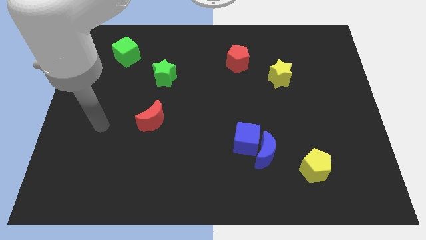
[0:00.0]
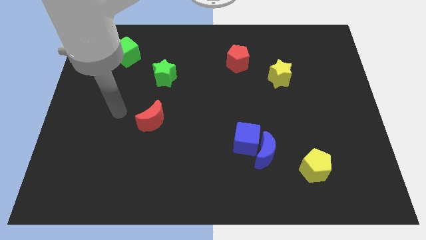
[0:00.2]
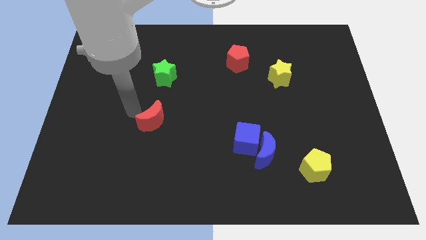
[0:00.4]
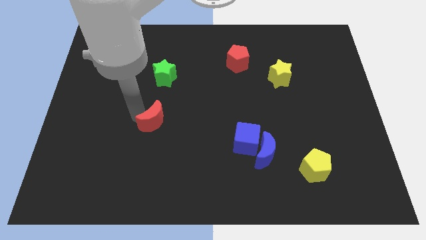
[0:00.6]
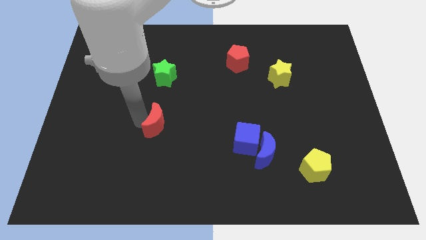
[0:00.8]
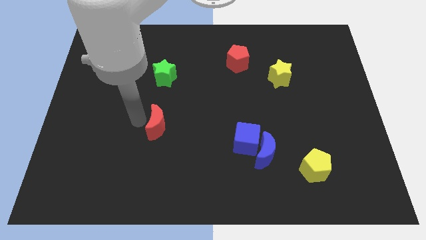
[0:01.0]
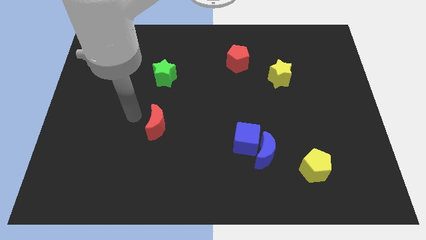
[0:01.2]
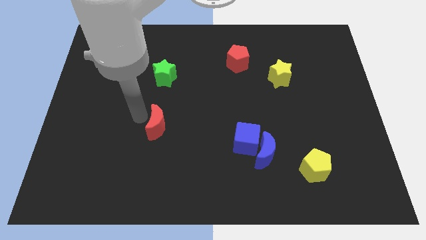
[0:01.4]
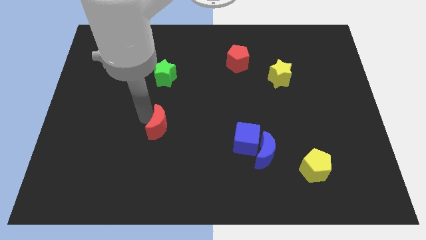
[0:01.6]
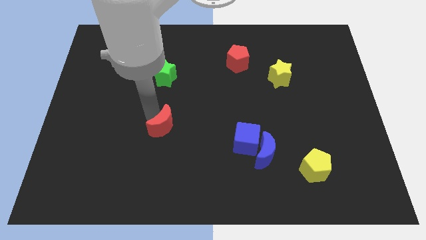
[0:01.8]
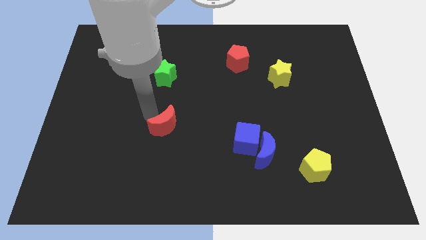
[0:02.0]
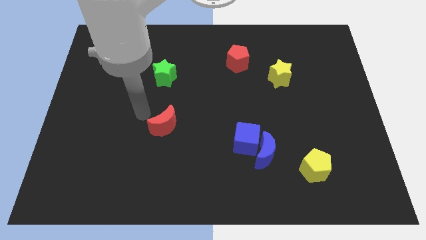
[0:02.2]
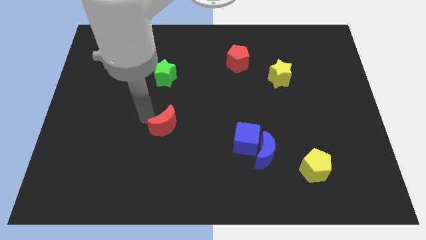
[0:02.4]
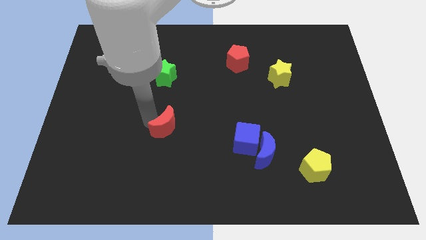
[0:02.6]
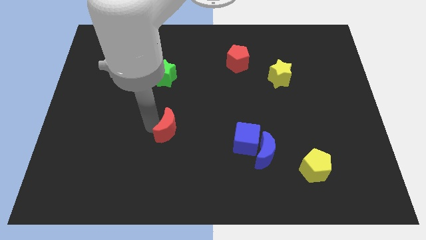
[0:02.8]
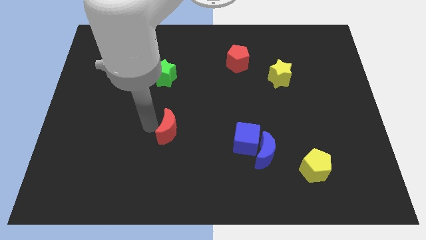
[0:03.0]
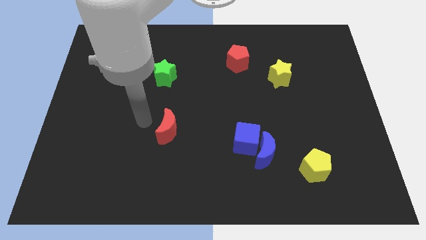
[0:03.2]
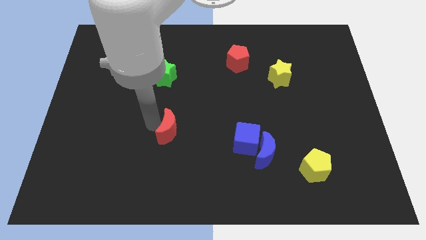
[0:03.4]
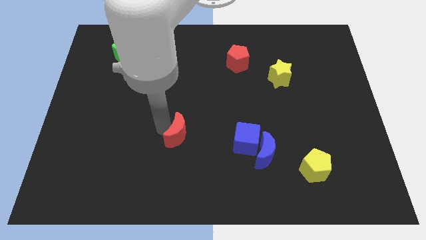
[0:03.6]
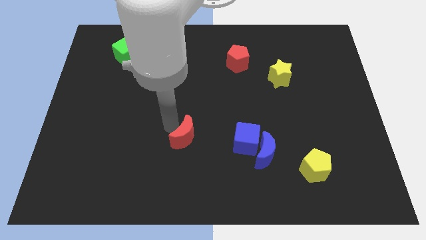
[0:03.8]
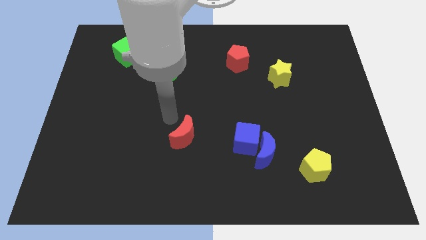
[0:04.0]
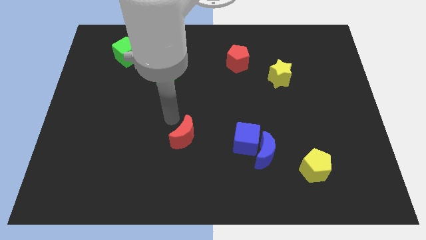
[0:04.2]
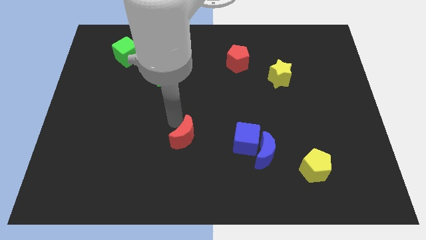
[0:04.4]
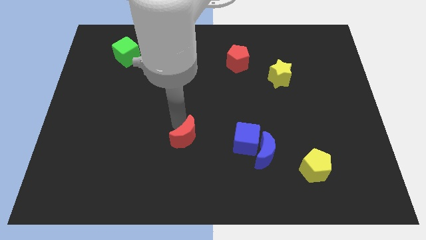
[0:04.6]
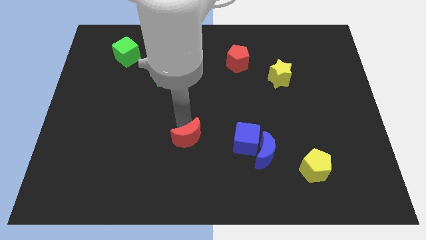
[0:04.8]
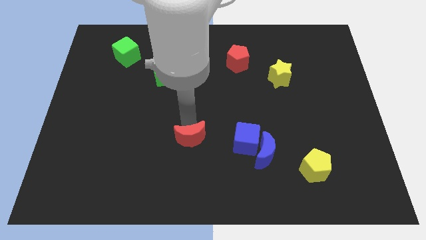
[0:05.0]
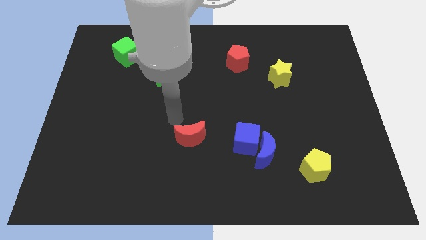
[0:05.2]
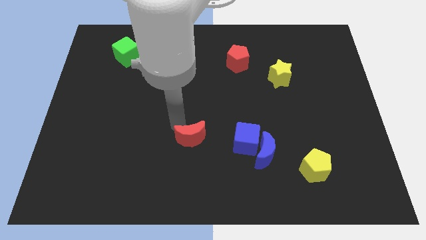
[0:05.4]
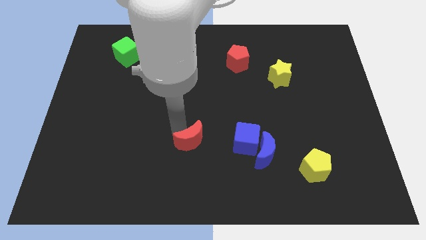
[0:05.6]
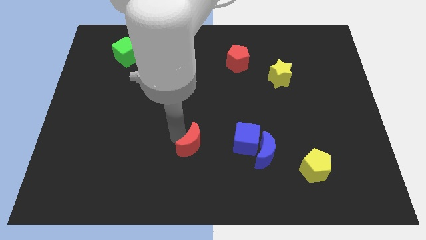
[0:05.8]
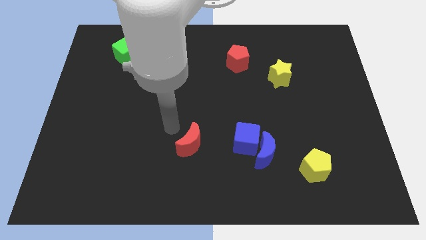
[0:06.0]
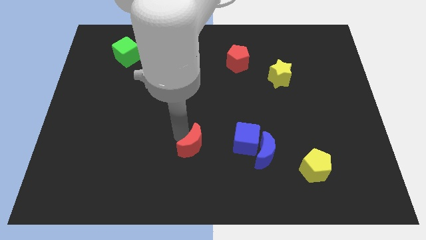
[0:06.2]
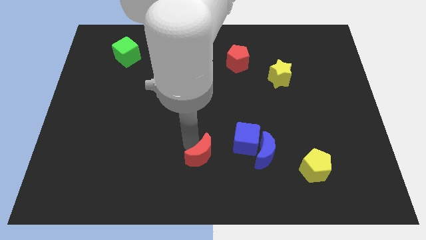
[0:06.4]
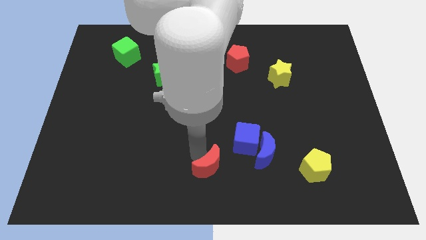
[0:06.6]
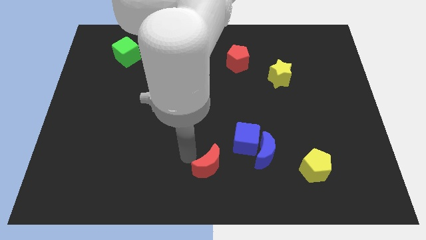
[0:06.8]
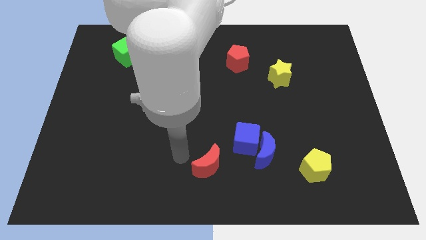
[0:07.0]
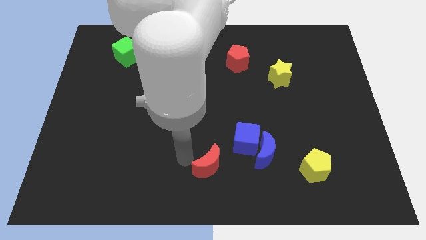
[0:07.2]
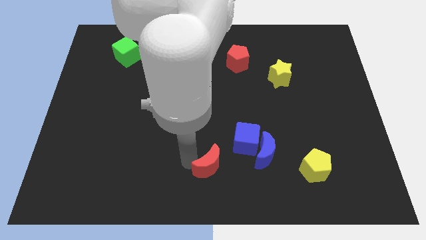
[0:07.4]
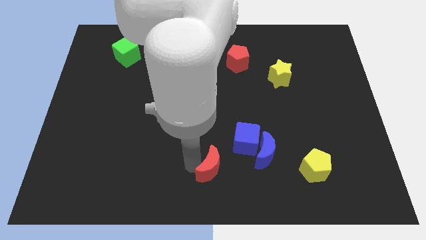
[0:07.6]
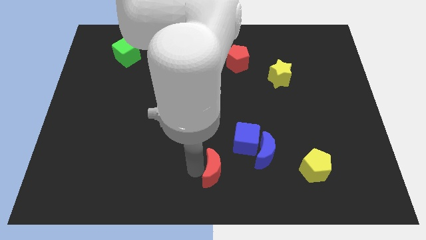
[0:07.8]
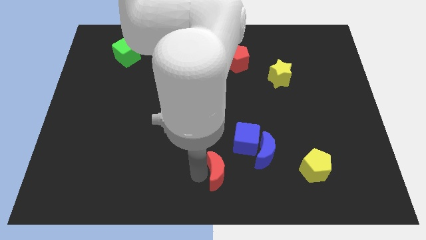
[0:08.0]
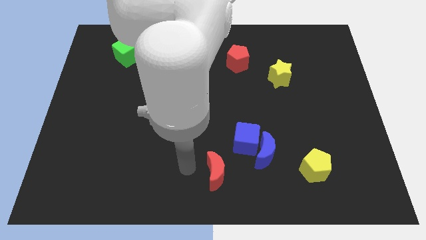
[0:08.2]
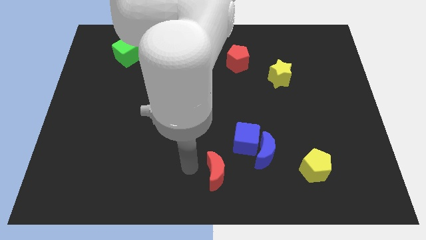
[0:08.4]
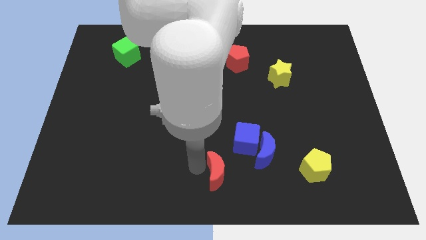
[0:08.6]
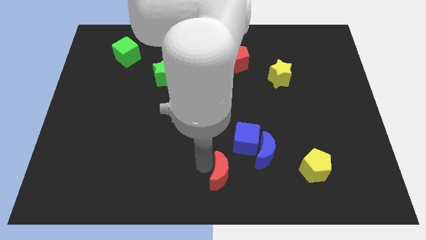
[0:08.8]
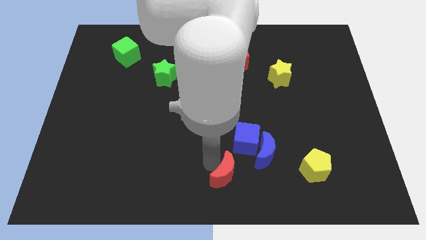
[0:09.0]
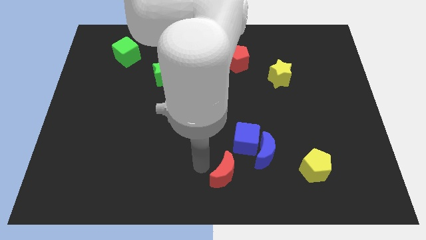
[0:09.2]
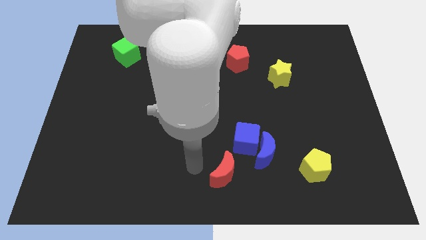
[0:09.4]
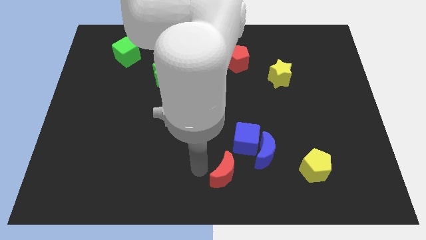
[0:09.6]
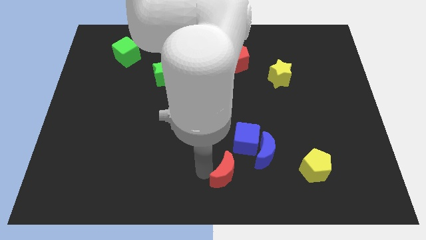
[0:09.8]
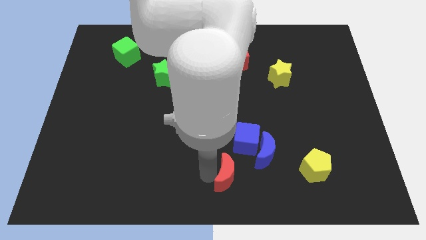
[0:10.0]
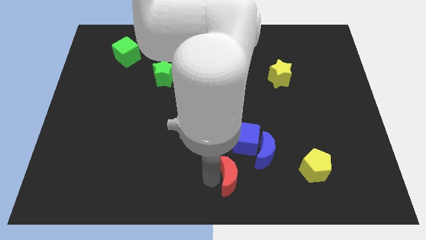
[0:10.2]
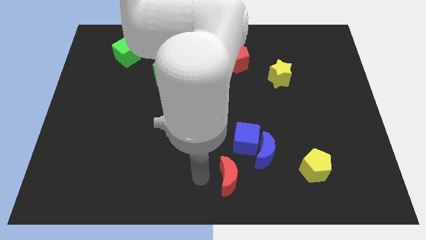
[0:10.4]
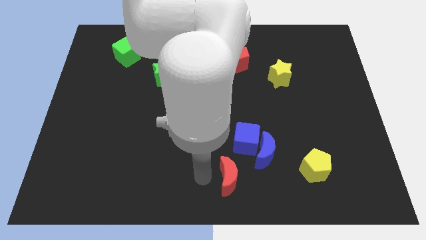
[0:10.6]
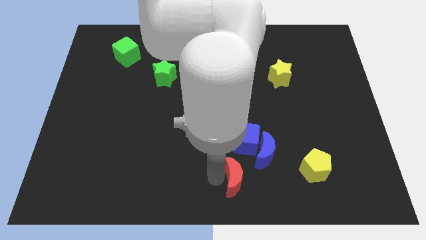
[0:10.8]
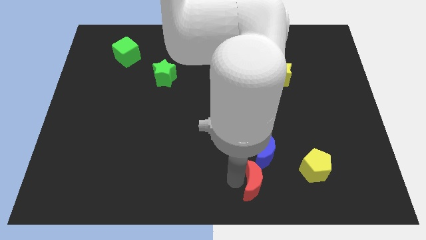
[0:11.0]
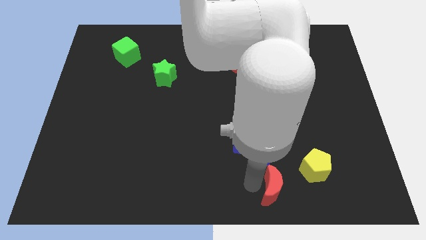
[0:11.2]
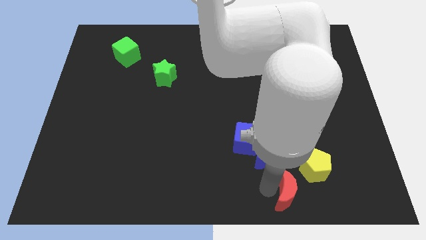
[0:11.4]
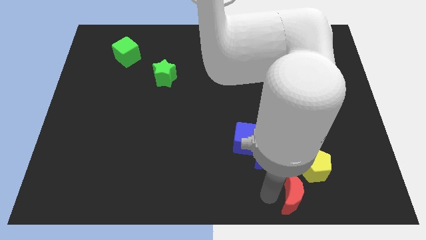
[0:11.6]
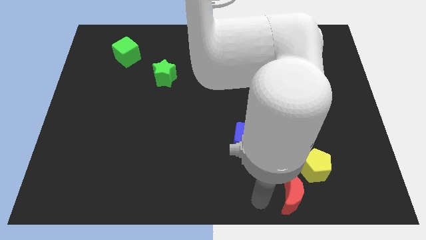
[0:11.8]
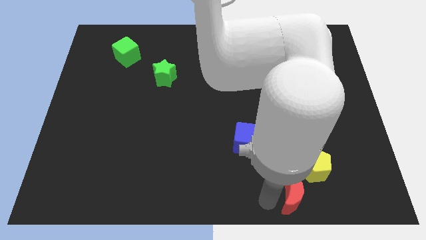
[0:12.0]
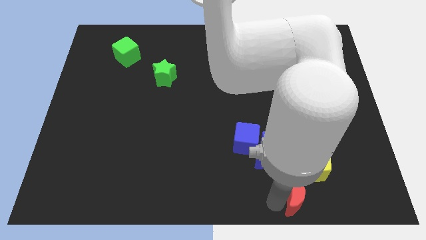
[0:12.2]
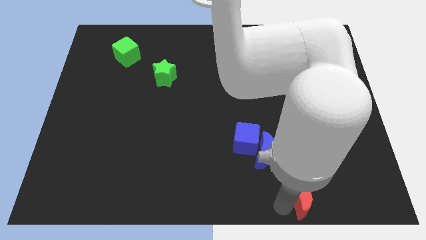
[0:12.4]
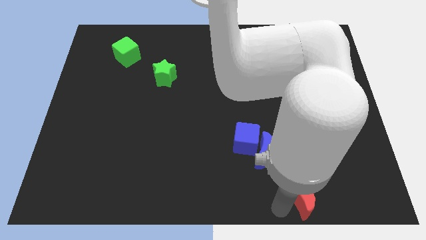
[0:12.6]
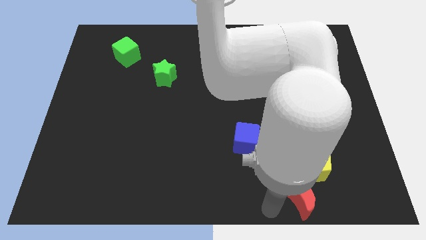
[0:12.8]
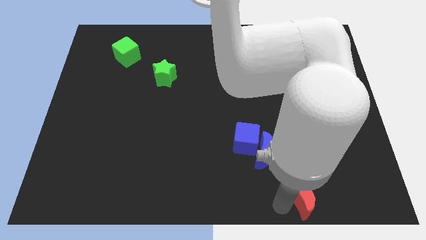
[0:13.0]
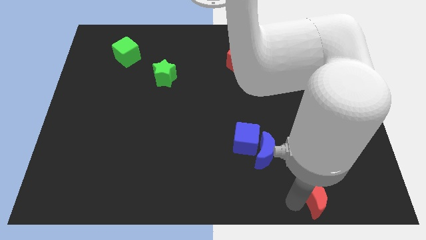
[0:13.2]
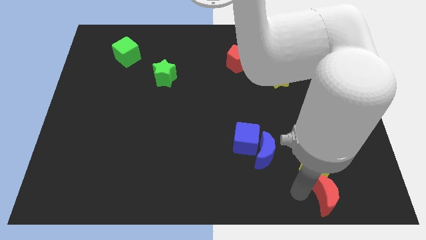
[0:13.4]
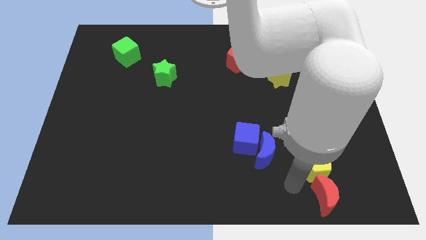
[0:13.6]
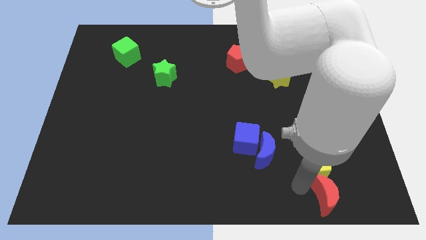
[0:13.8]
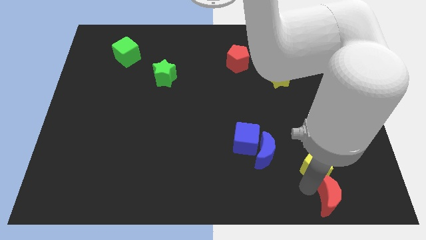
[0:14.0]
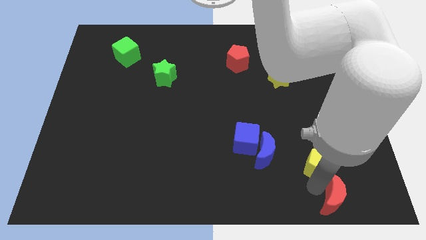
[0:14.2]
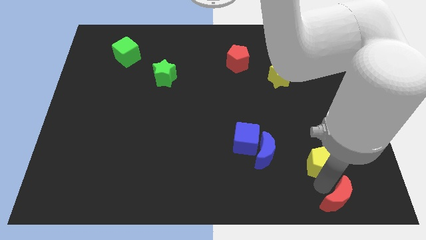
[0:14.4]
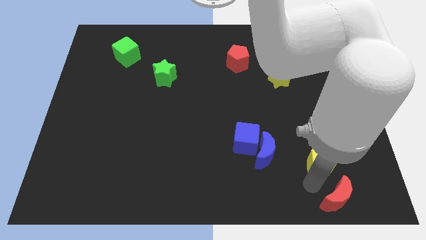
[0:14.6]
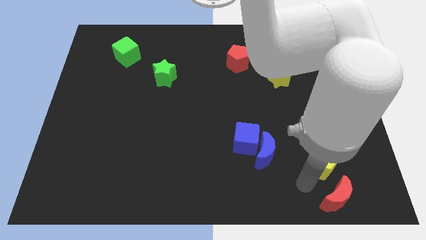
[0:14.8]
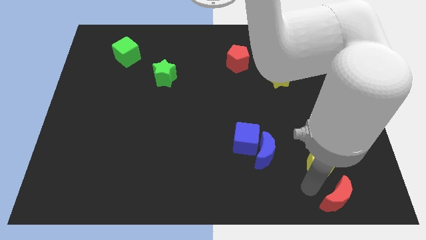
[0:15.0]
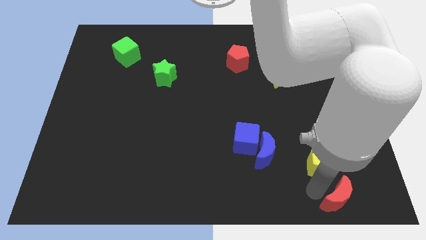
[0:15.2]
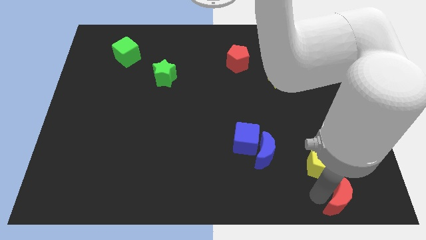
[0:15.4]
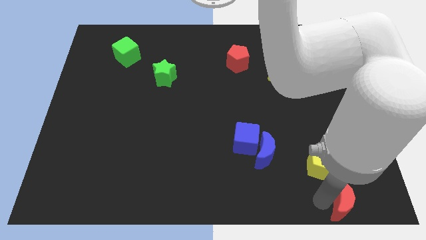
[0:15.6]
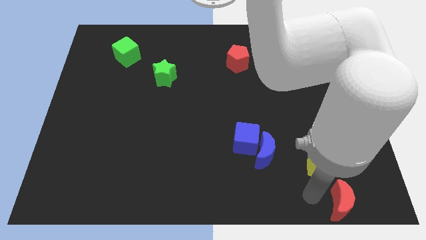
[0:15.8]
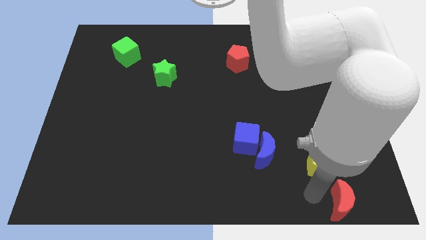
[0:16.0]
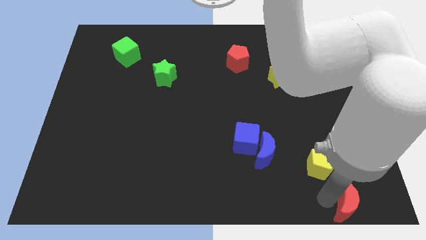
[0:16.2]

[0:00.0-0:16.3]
push the red moon to the lower right corner
